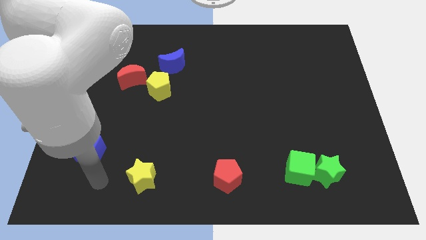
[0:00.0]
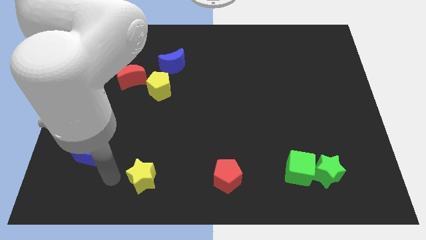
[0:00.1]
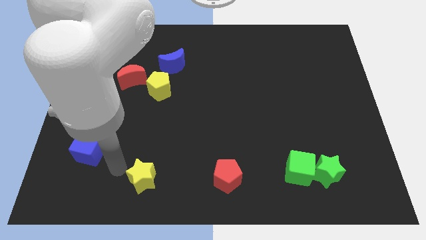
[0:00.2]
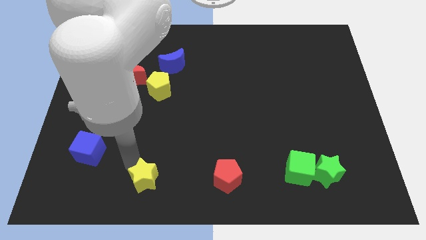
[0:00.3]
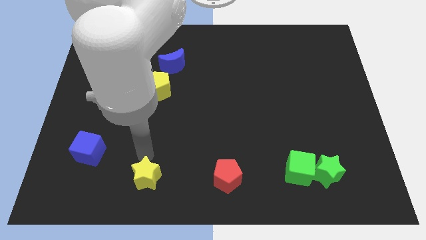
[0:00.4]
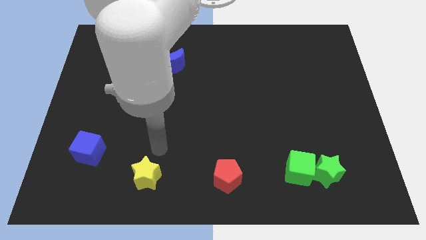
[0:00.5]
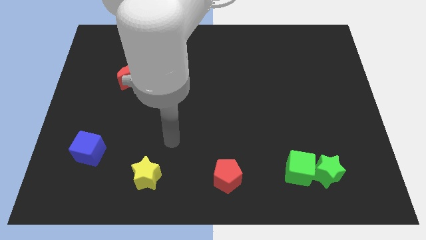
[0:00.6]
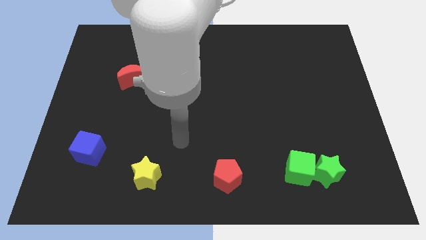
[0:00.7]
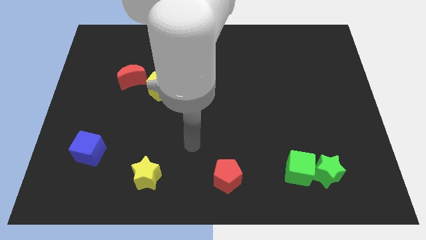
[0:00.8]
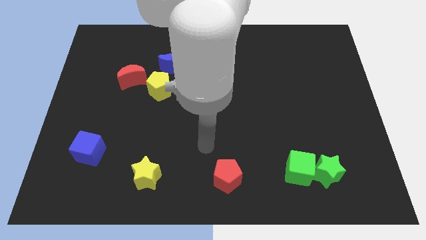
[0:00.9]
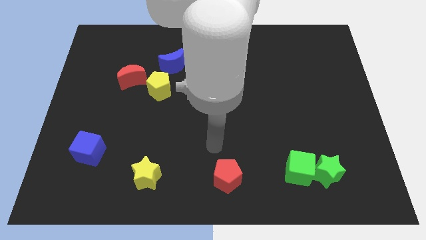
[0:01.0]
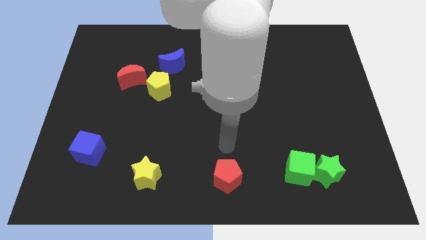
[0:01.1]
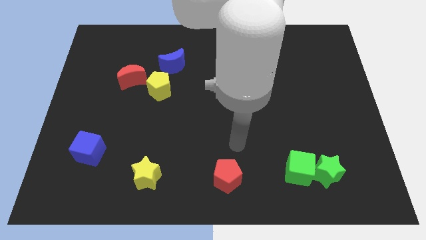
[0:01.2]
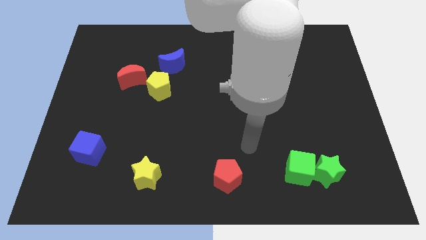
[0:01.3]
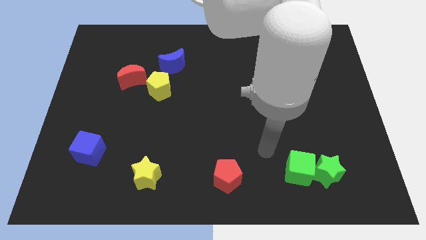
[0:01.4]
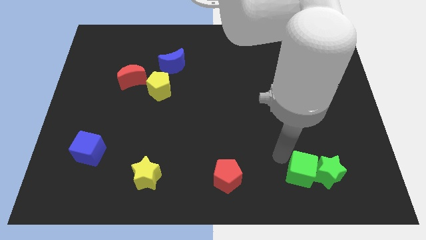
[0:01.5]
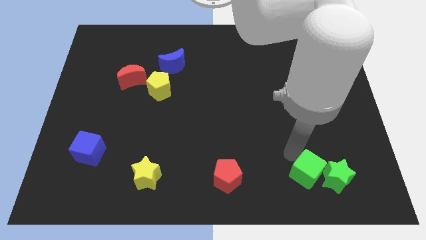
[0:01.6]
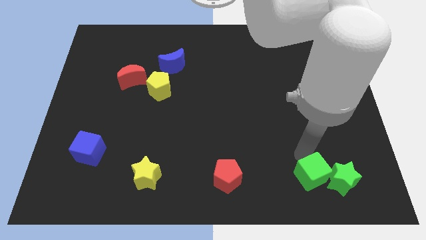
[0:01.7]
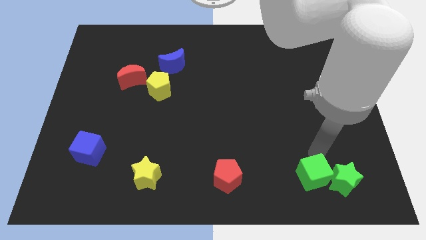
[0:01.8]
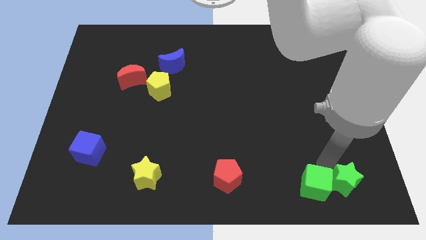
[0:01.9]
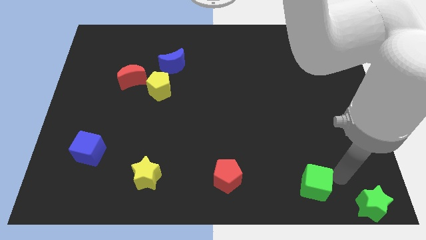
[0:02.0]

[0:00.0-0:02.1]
separate the green cube from the green star

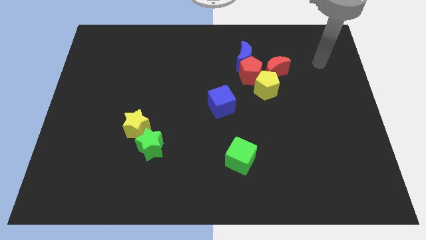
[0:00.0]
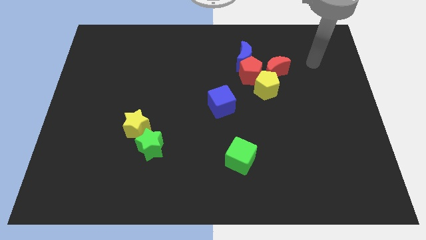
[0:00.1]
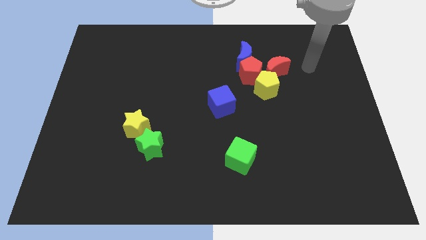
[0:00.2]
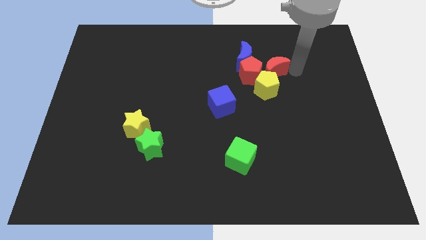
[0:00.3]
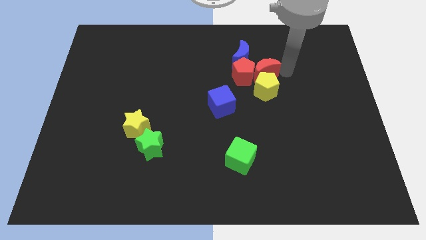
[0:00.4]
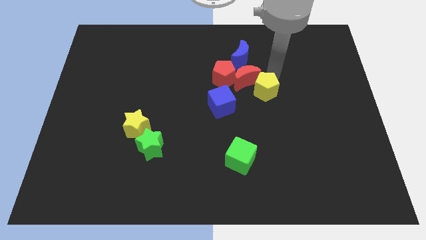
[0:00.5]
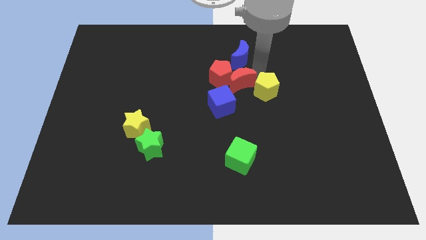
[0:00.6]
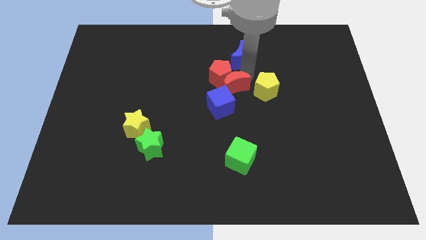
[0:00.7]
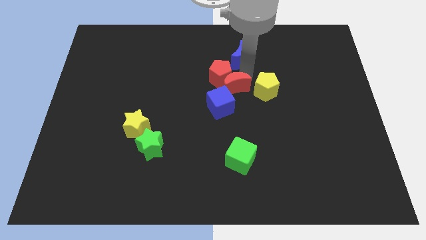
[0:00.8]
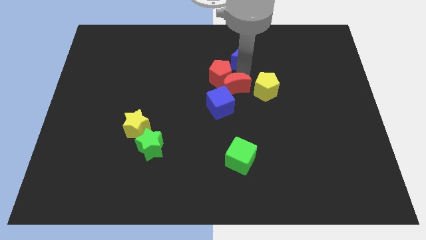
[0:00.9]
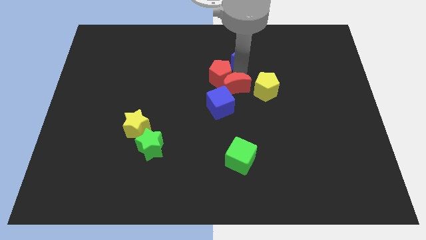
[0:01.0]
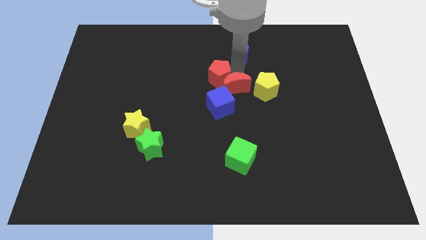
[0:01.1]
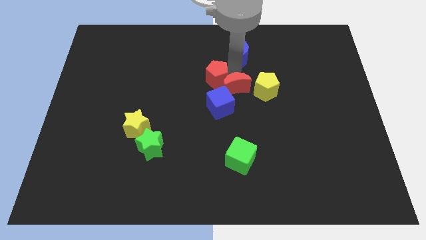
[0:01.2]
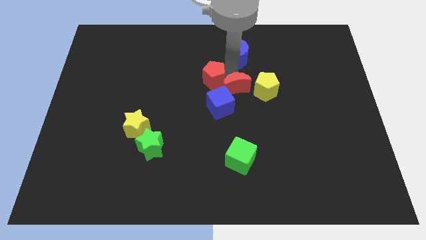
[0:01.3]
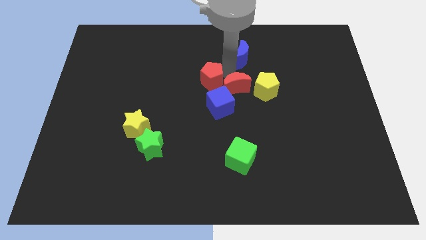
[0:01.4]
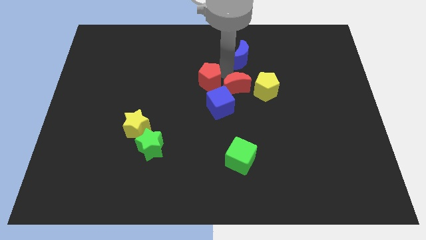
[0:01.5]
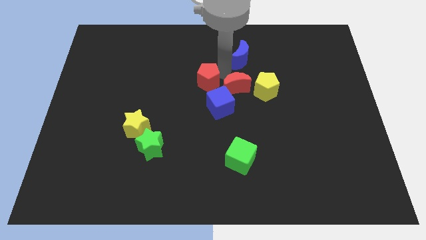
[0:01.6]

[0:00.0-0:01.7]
separate the red pentagon from the group

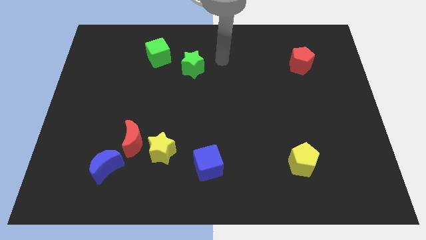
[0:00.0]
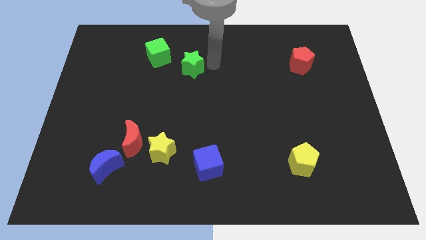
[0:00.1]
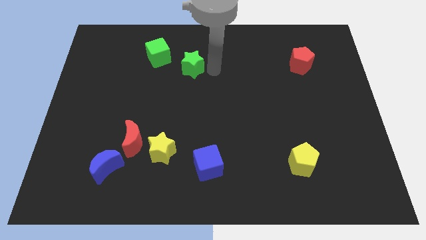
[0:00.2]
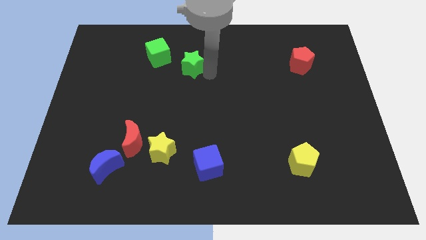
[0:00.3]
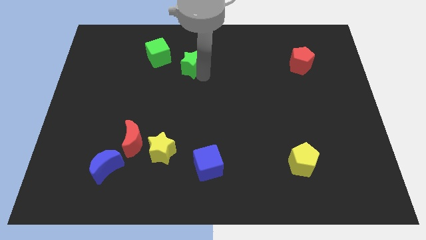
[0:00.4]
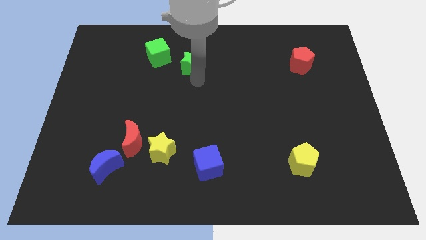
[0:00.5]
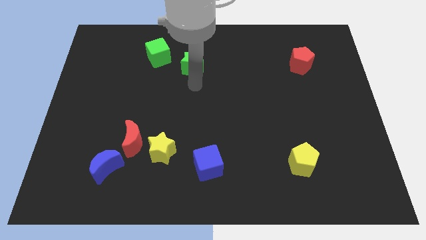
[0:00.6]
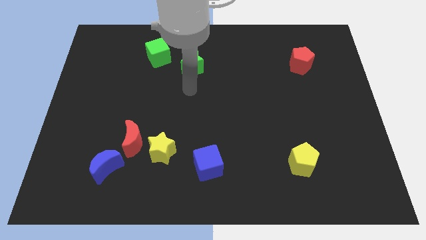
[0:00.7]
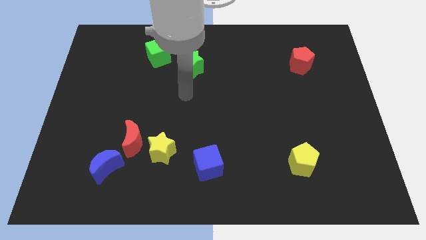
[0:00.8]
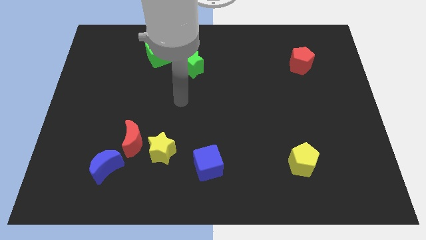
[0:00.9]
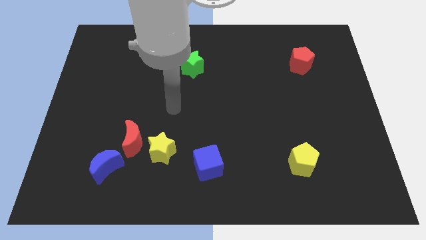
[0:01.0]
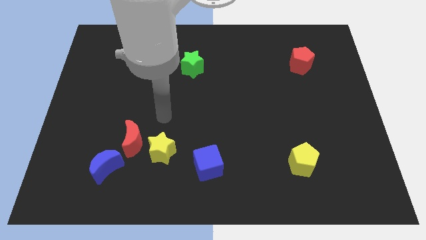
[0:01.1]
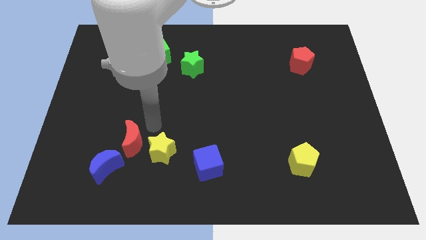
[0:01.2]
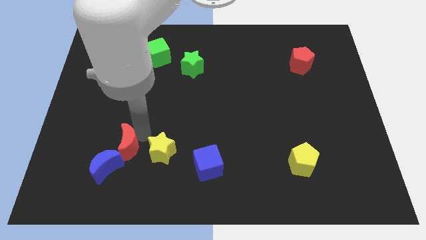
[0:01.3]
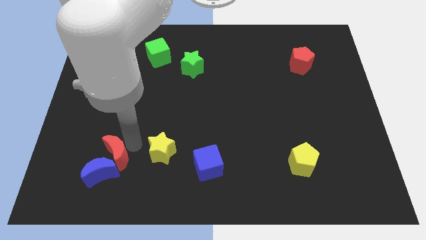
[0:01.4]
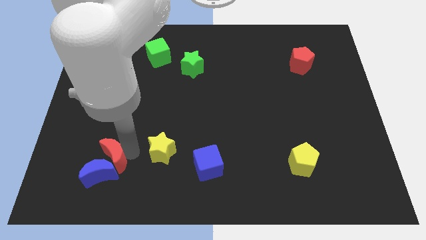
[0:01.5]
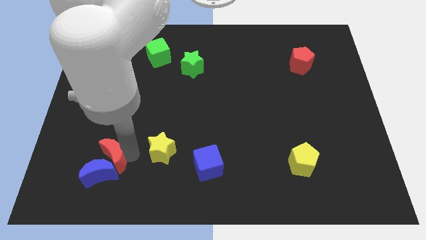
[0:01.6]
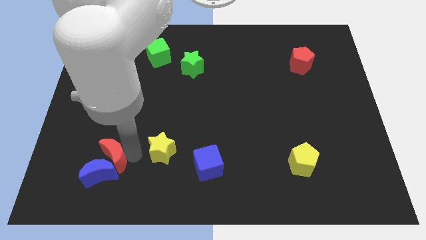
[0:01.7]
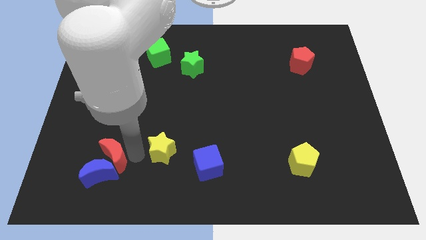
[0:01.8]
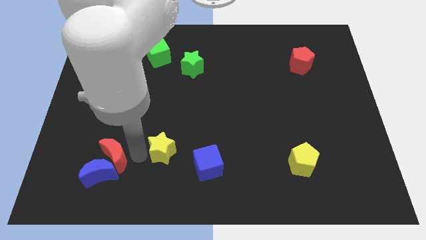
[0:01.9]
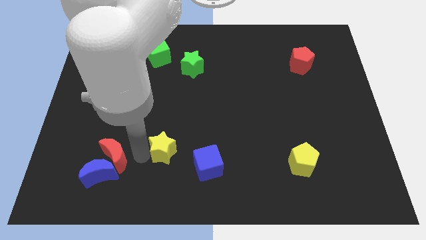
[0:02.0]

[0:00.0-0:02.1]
pull the yellow star apart from the red moon

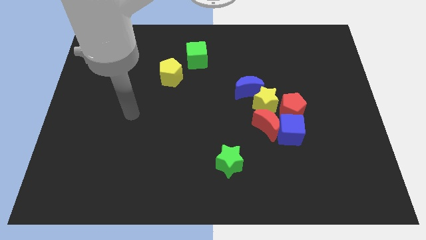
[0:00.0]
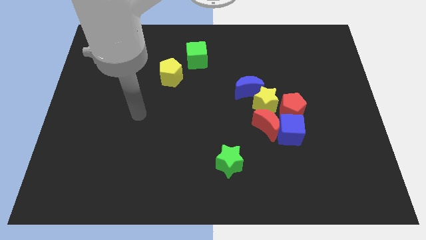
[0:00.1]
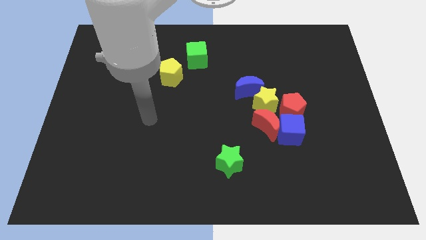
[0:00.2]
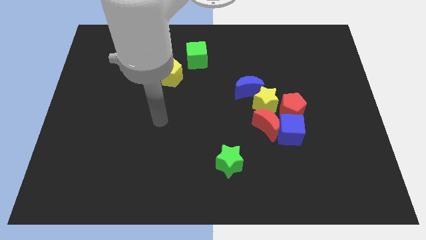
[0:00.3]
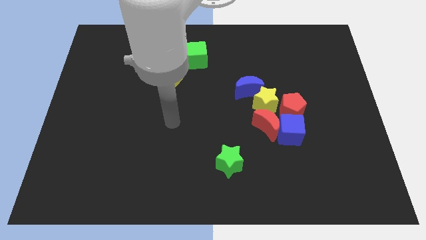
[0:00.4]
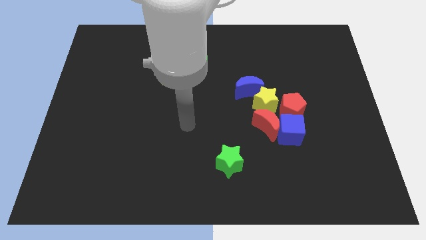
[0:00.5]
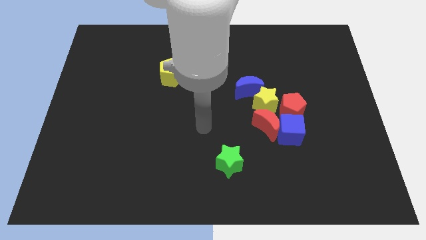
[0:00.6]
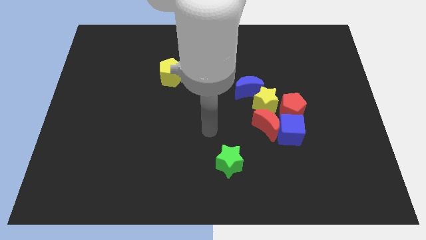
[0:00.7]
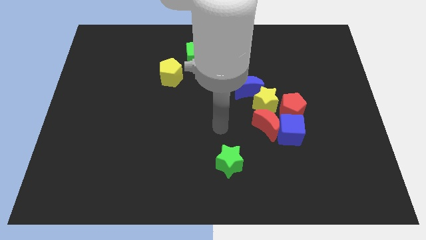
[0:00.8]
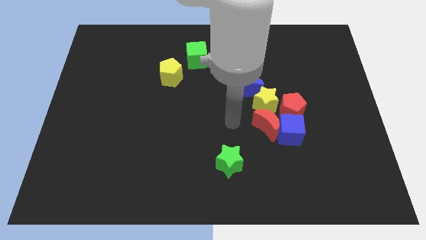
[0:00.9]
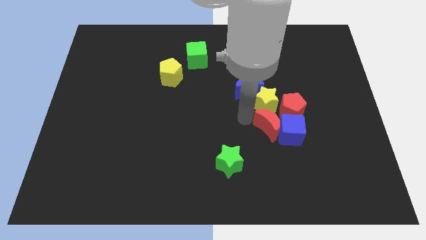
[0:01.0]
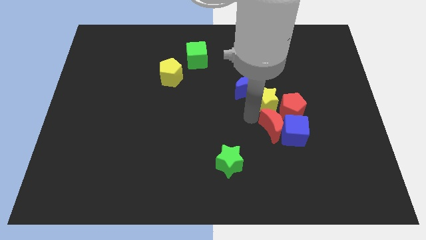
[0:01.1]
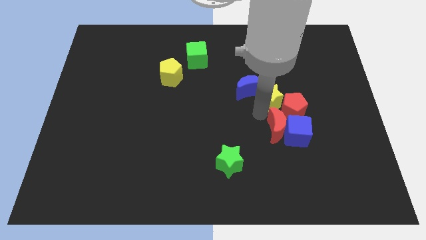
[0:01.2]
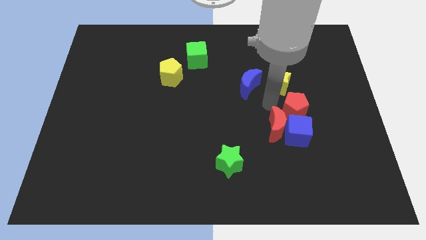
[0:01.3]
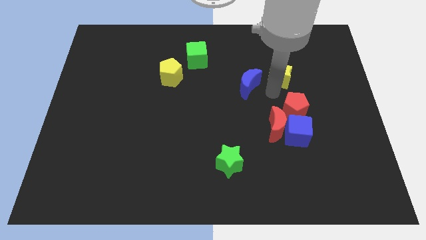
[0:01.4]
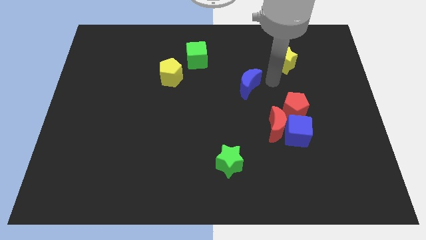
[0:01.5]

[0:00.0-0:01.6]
separate the blue moon from the yellow star

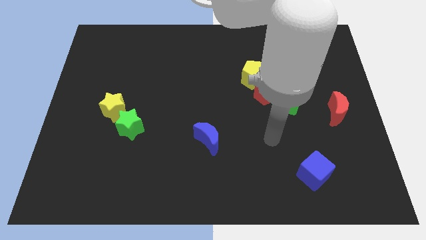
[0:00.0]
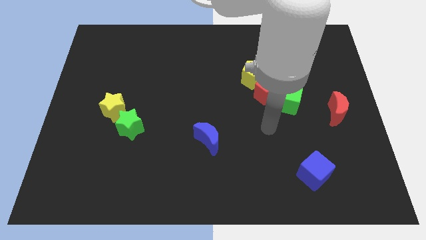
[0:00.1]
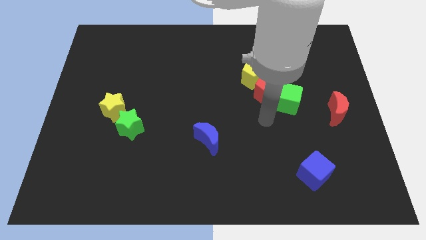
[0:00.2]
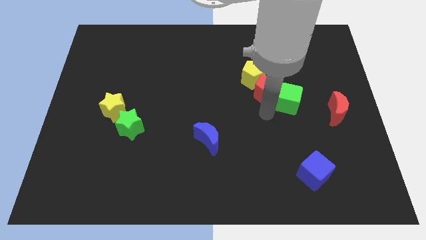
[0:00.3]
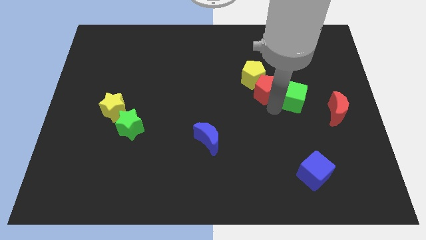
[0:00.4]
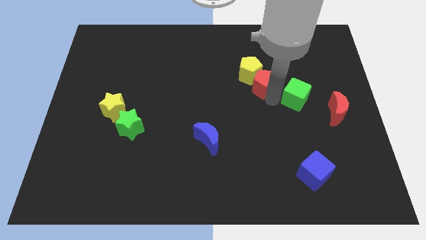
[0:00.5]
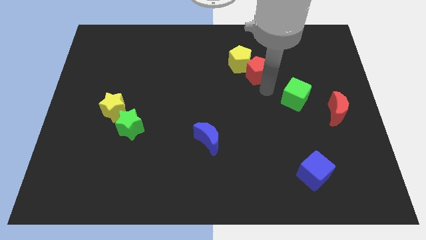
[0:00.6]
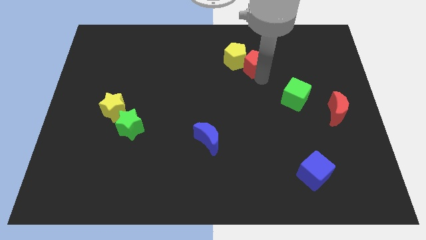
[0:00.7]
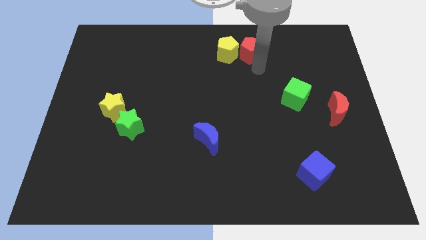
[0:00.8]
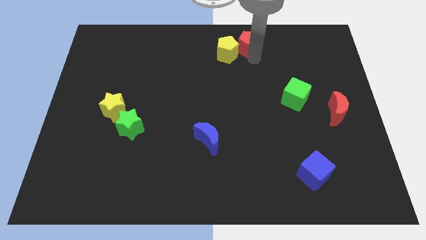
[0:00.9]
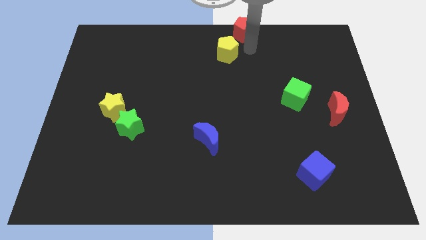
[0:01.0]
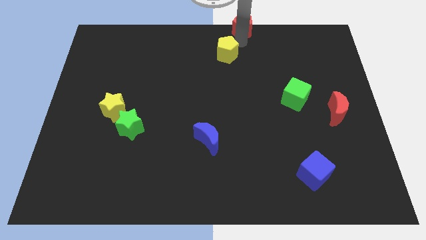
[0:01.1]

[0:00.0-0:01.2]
move the yellow pentagon away from the red pentagon

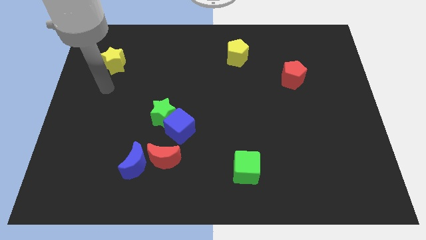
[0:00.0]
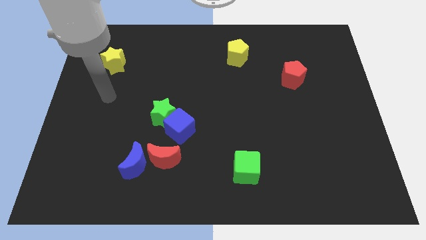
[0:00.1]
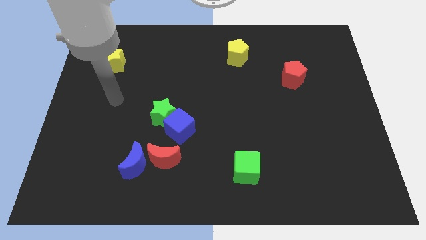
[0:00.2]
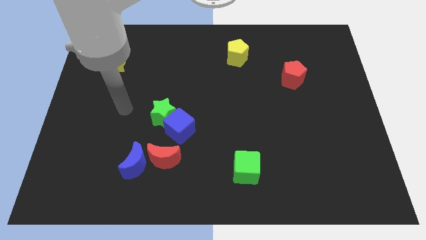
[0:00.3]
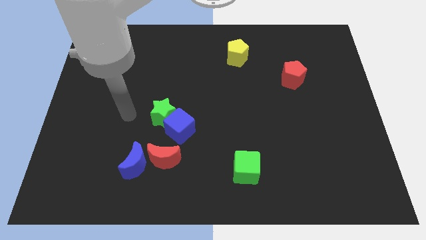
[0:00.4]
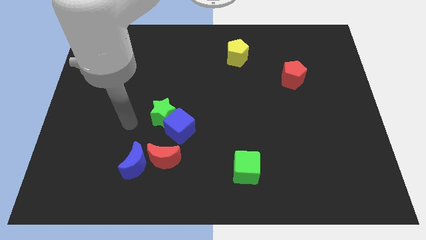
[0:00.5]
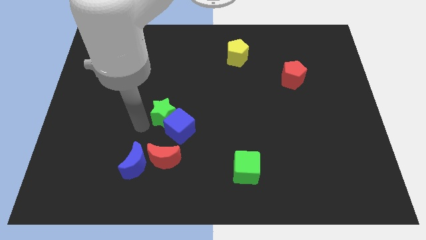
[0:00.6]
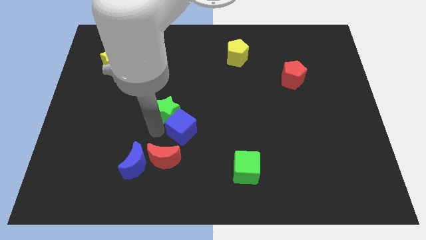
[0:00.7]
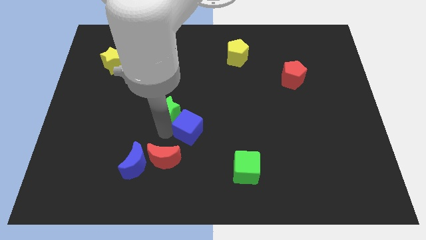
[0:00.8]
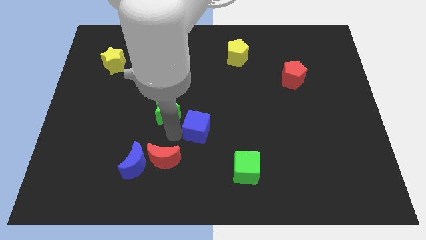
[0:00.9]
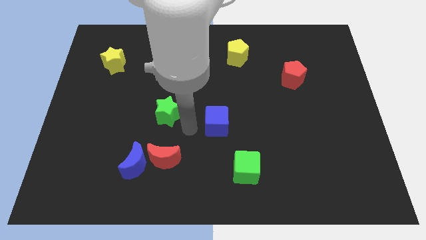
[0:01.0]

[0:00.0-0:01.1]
move the green star away from the blue cube
